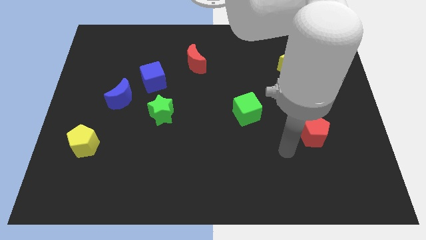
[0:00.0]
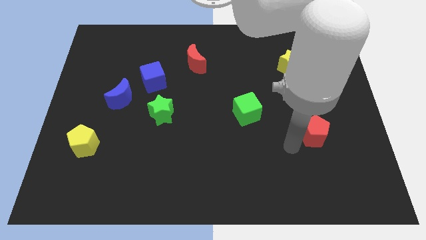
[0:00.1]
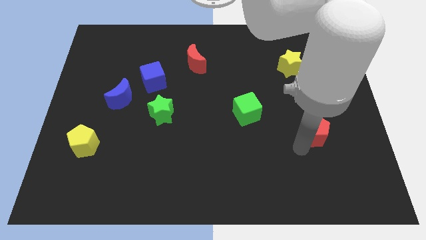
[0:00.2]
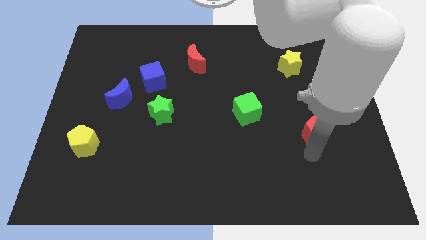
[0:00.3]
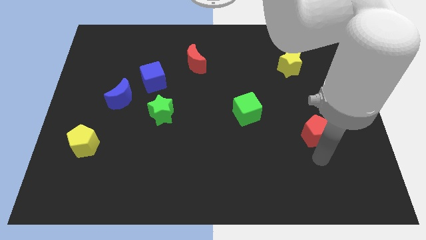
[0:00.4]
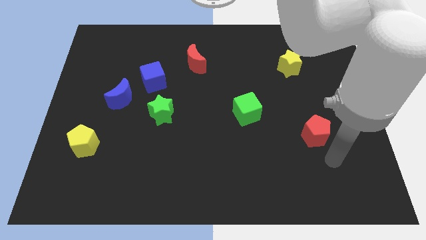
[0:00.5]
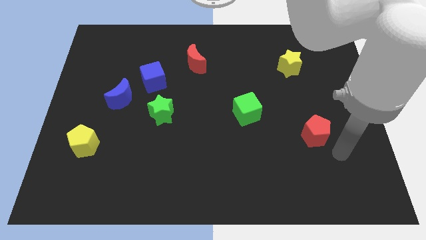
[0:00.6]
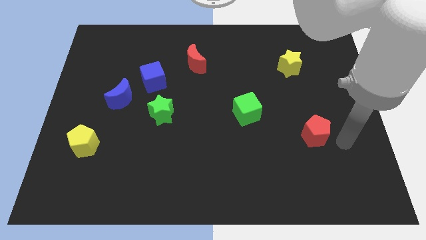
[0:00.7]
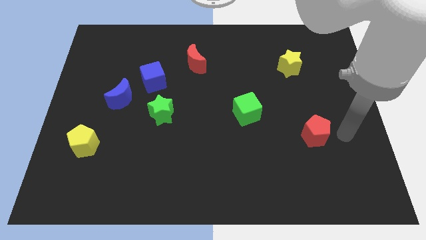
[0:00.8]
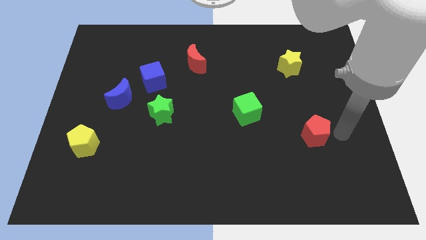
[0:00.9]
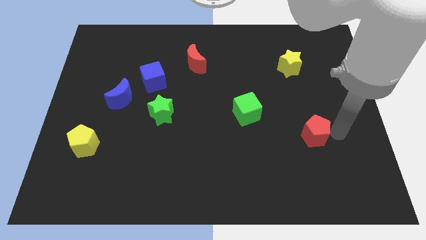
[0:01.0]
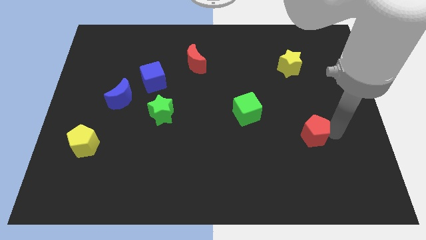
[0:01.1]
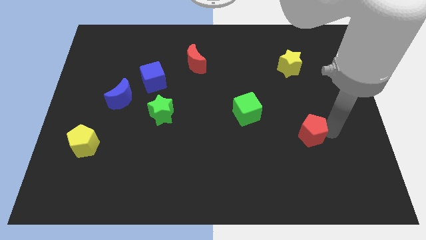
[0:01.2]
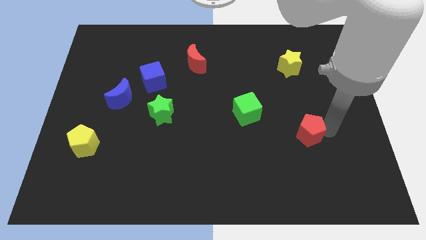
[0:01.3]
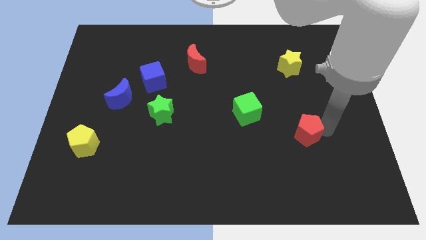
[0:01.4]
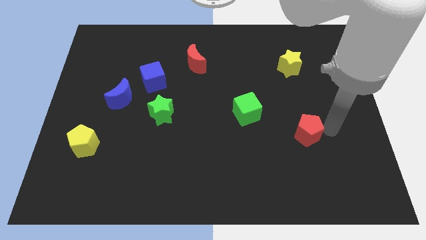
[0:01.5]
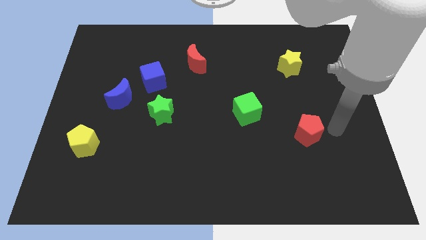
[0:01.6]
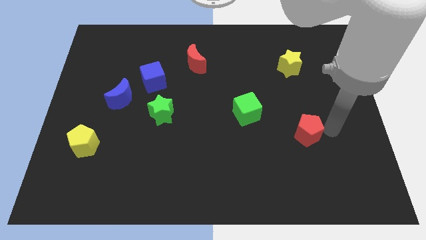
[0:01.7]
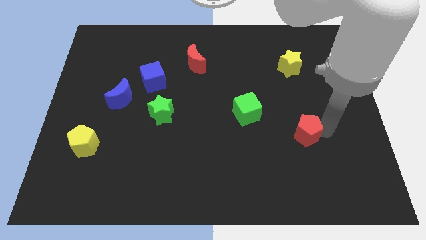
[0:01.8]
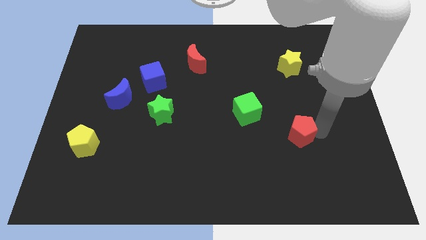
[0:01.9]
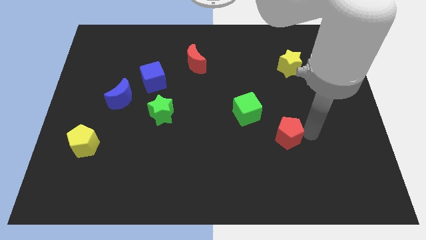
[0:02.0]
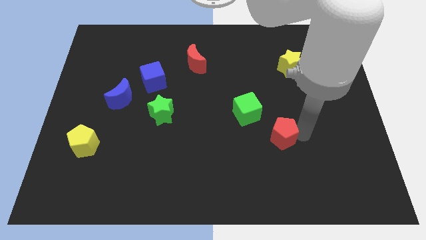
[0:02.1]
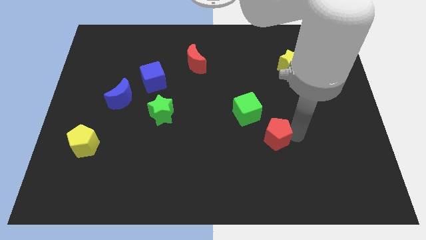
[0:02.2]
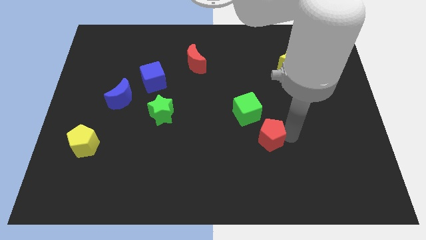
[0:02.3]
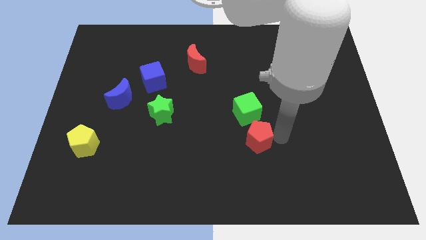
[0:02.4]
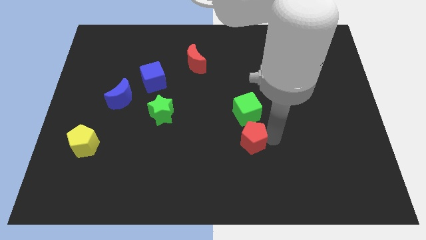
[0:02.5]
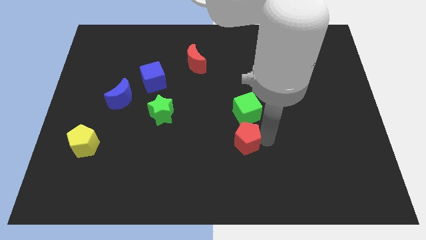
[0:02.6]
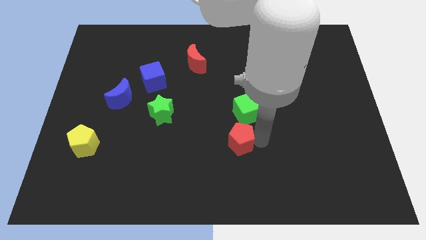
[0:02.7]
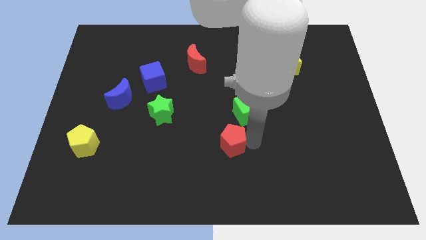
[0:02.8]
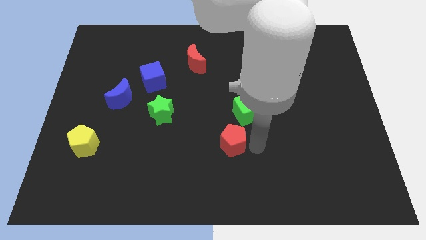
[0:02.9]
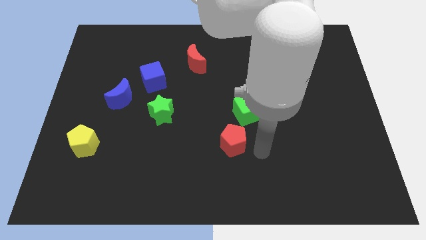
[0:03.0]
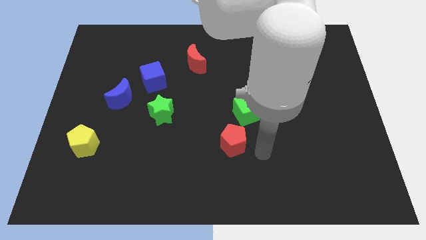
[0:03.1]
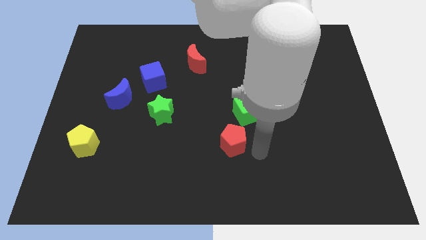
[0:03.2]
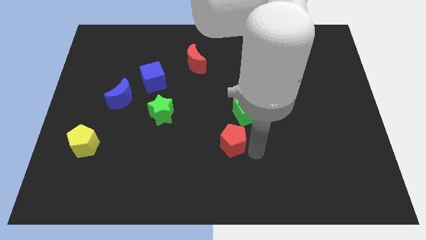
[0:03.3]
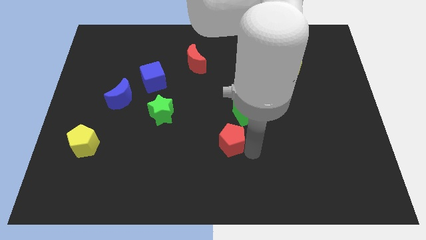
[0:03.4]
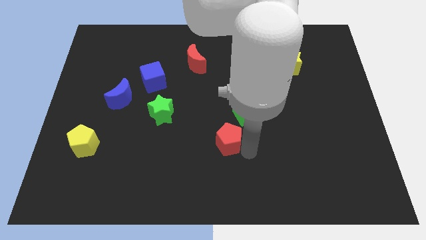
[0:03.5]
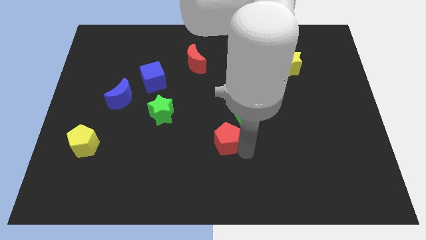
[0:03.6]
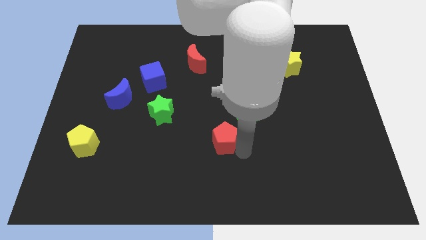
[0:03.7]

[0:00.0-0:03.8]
slide the red pentagon left

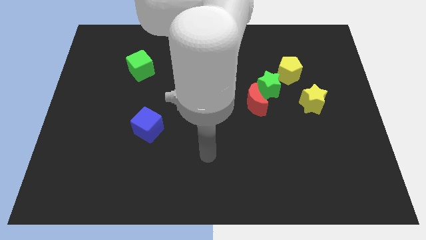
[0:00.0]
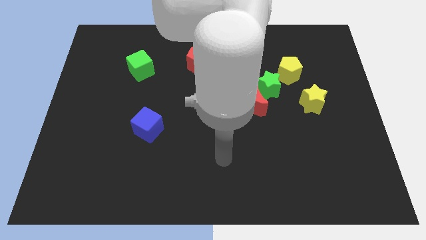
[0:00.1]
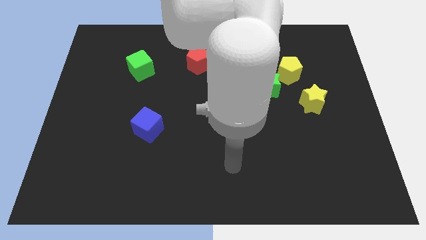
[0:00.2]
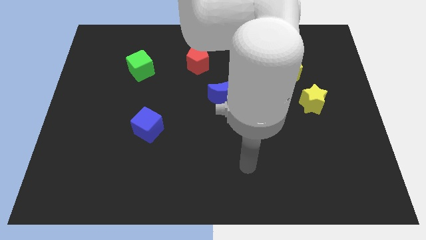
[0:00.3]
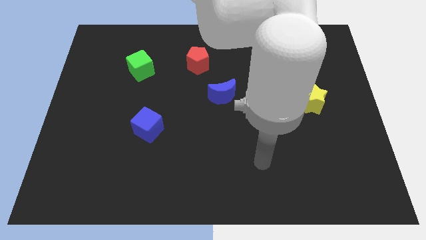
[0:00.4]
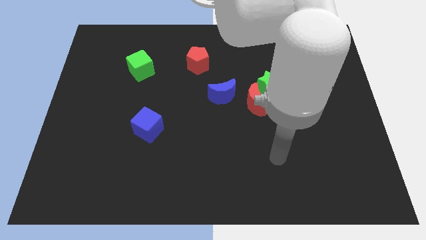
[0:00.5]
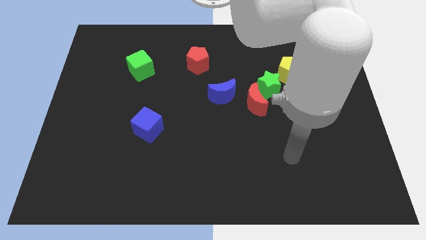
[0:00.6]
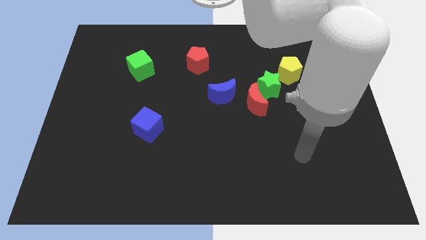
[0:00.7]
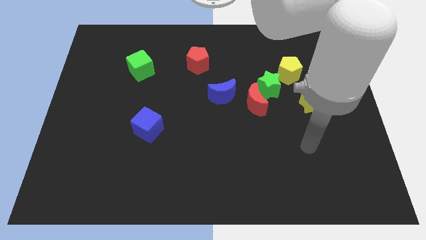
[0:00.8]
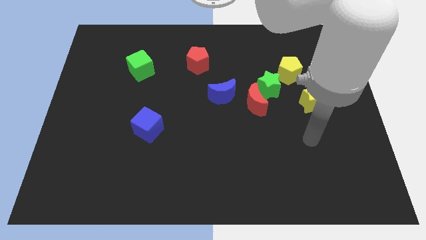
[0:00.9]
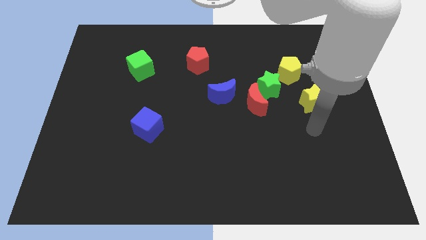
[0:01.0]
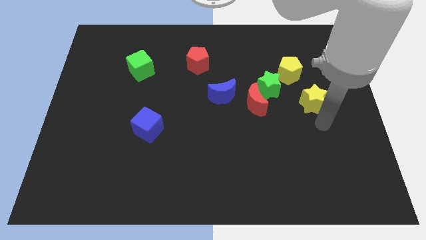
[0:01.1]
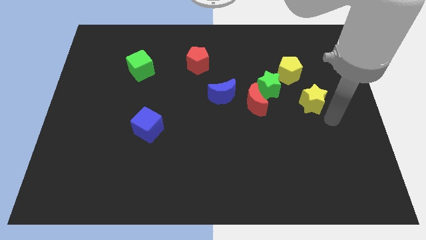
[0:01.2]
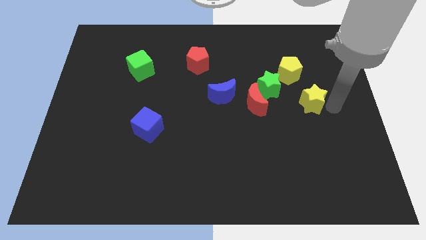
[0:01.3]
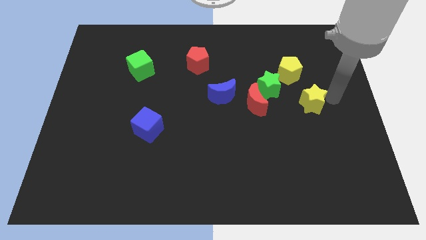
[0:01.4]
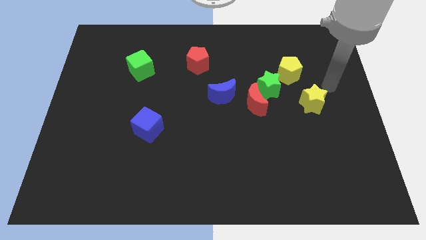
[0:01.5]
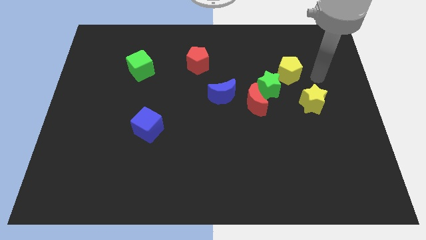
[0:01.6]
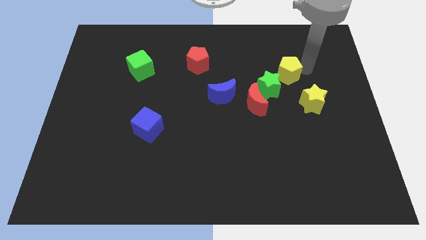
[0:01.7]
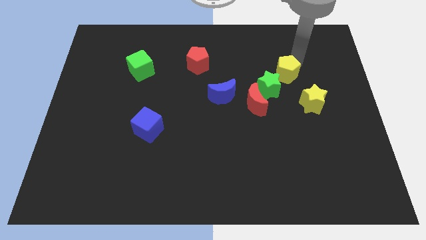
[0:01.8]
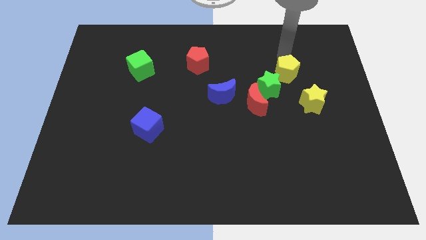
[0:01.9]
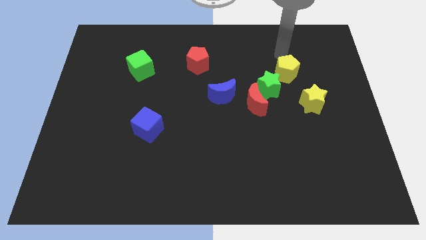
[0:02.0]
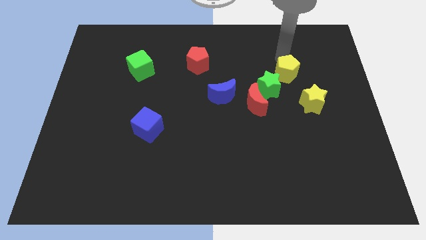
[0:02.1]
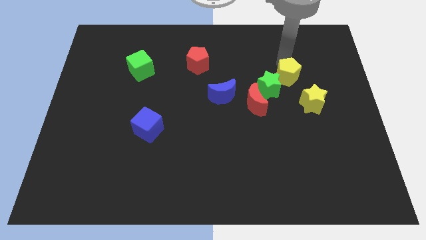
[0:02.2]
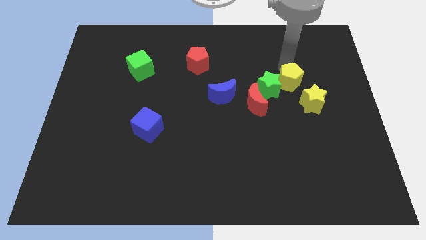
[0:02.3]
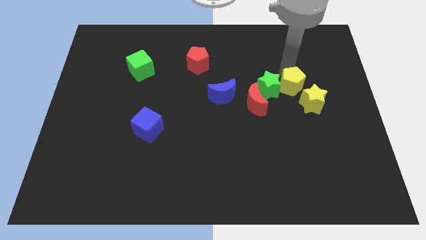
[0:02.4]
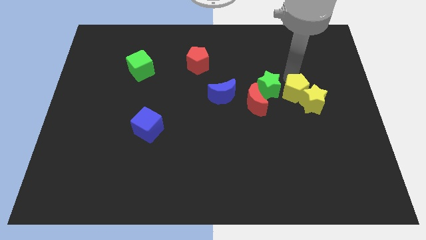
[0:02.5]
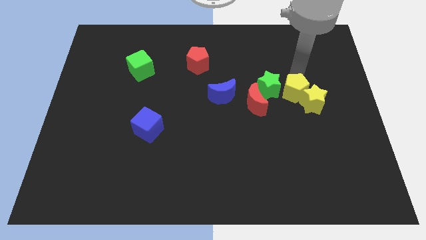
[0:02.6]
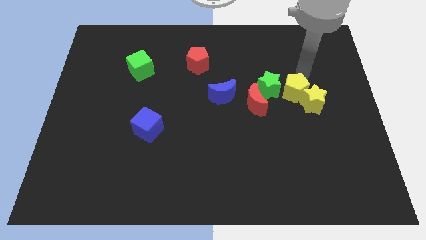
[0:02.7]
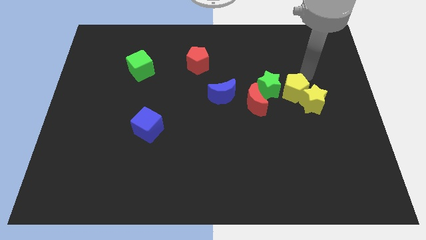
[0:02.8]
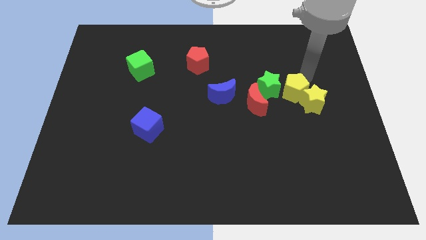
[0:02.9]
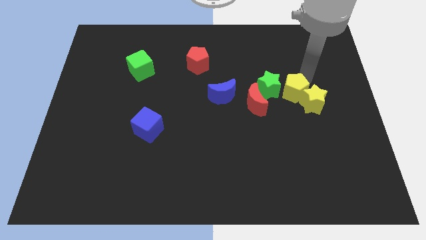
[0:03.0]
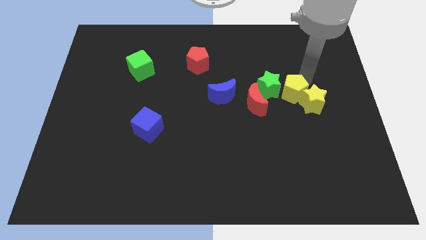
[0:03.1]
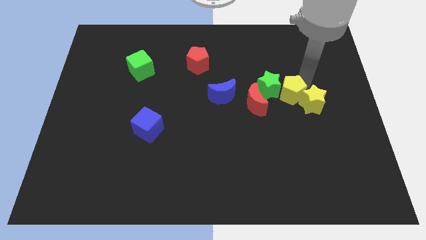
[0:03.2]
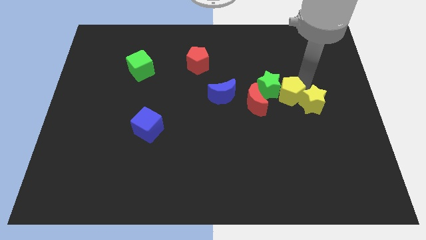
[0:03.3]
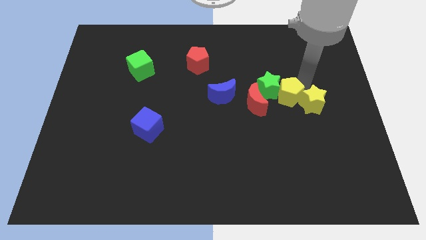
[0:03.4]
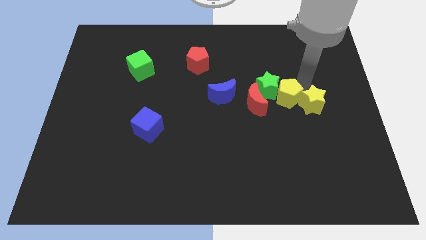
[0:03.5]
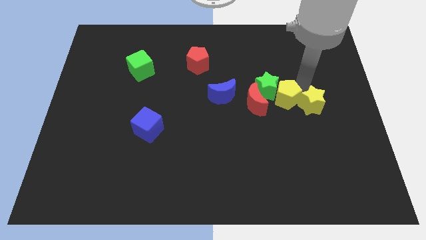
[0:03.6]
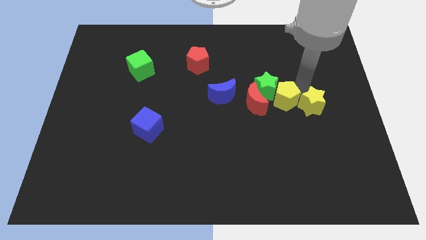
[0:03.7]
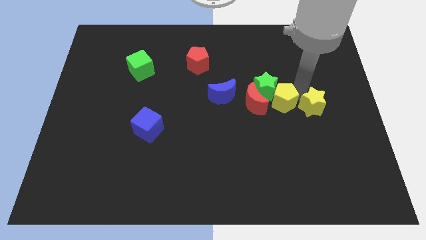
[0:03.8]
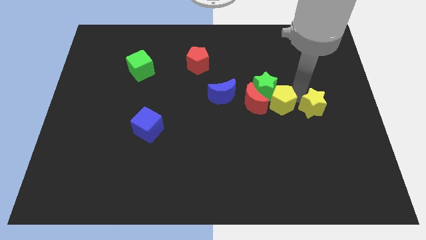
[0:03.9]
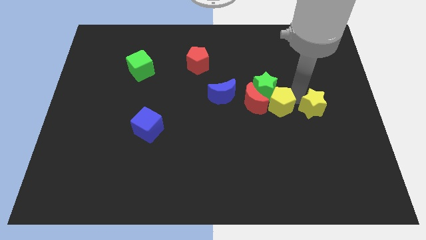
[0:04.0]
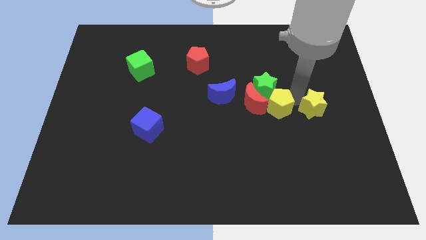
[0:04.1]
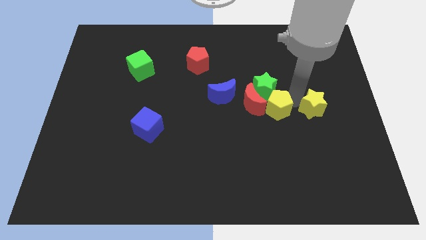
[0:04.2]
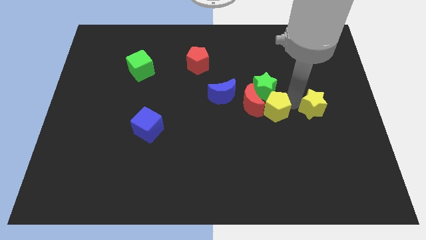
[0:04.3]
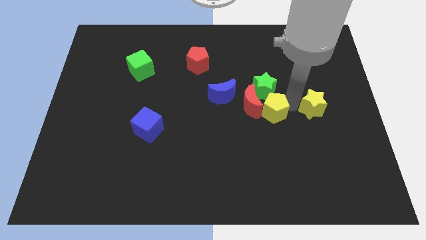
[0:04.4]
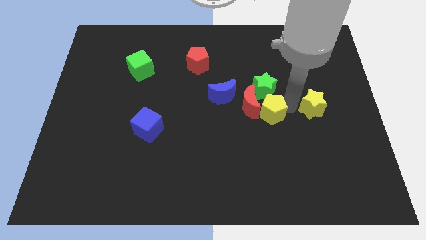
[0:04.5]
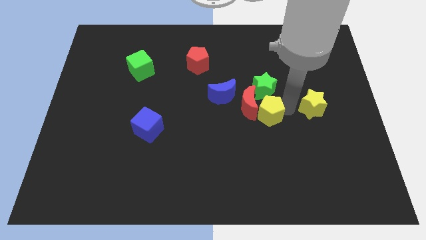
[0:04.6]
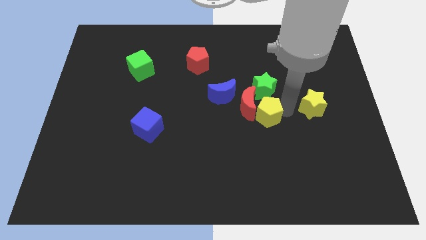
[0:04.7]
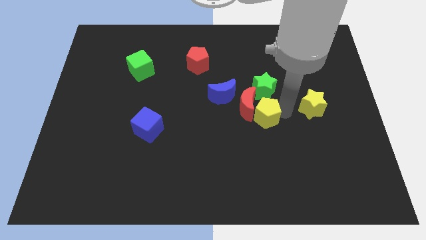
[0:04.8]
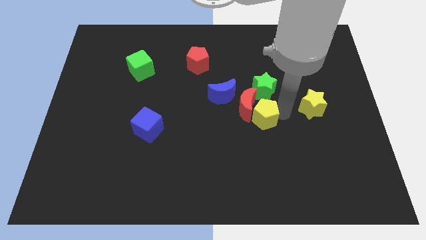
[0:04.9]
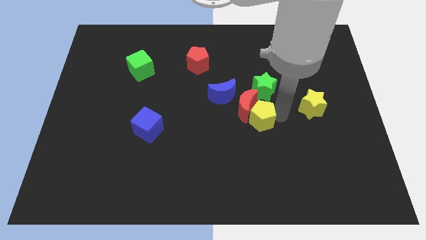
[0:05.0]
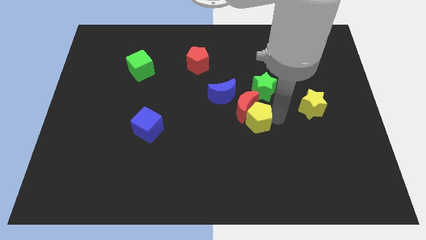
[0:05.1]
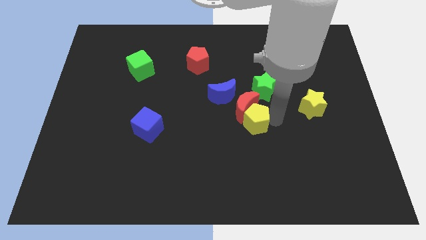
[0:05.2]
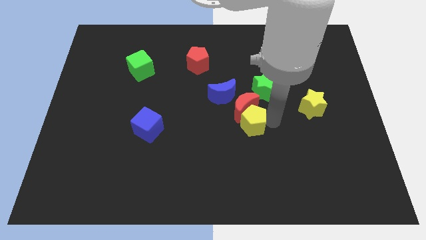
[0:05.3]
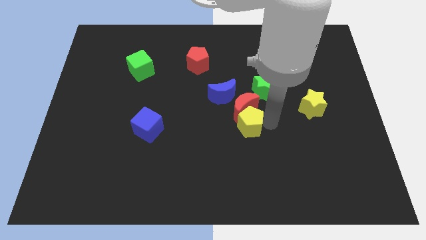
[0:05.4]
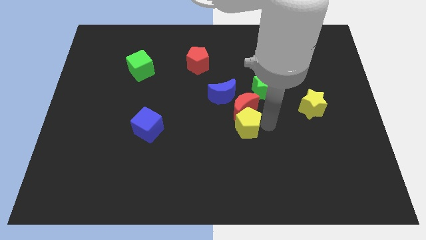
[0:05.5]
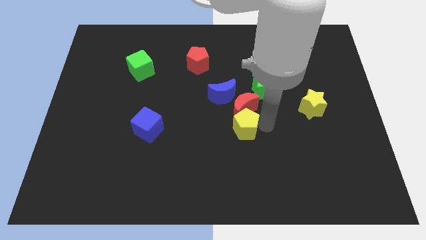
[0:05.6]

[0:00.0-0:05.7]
slide the yellow pentagon down and left diagonally
